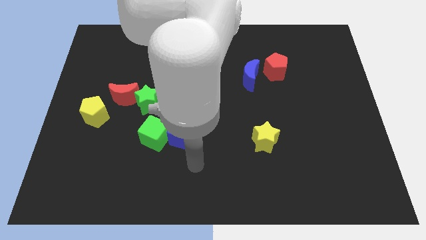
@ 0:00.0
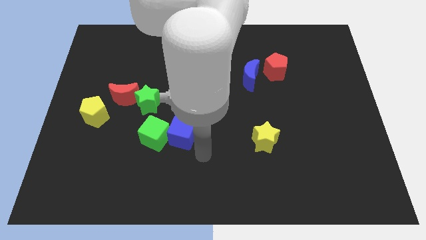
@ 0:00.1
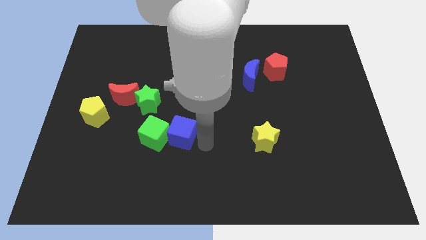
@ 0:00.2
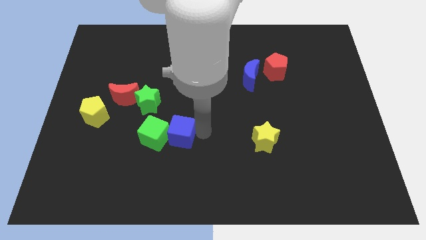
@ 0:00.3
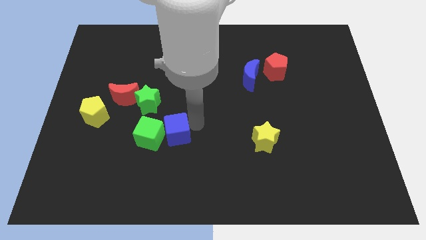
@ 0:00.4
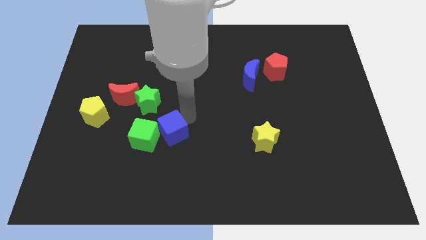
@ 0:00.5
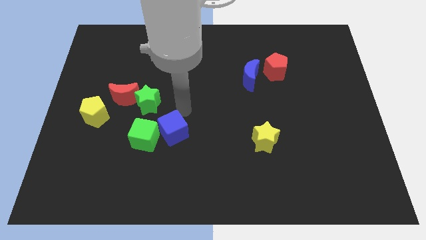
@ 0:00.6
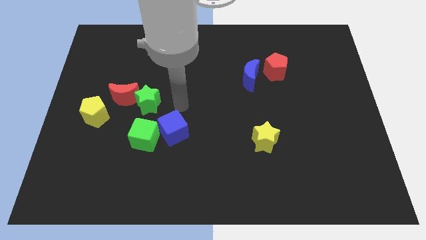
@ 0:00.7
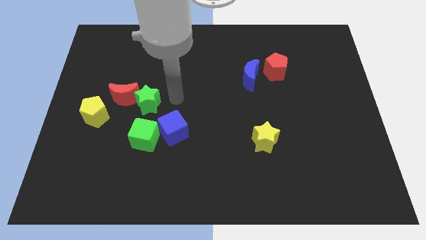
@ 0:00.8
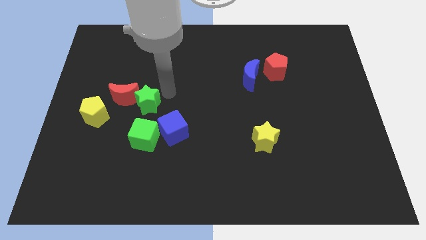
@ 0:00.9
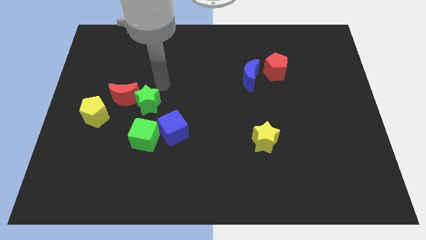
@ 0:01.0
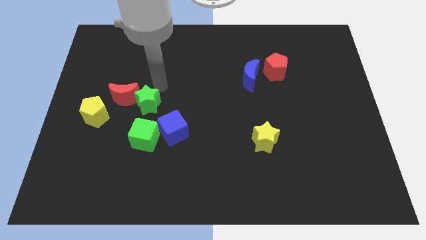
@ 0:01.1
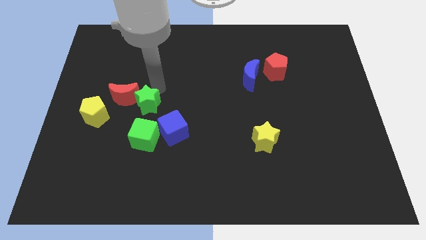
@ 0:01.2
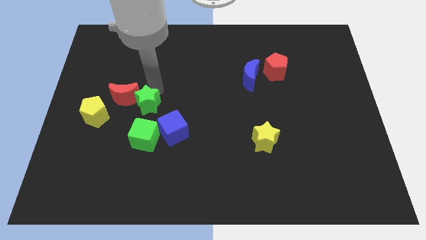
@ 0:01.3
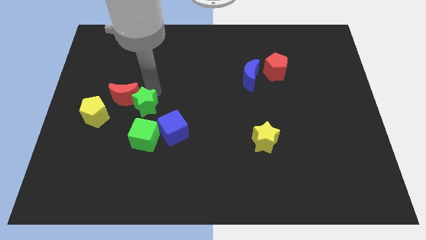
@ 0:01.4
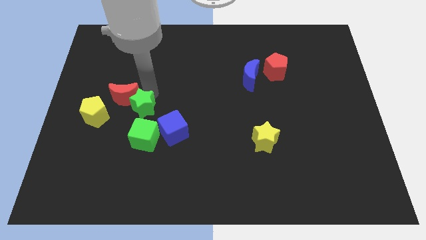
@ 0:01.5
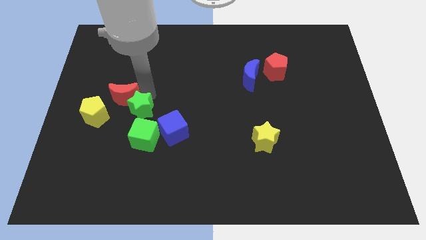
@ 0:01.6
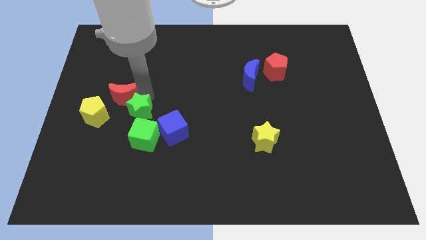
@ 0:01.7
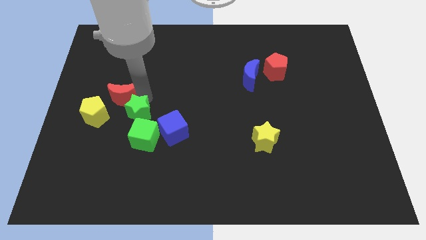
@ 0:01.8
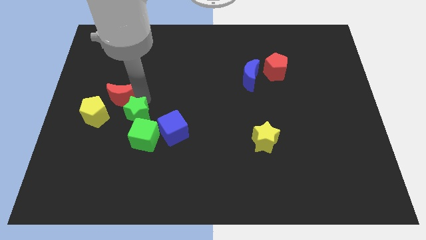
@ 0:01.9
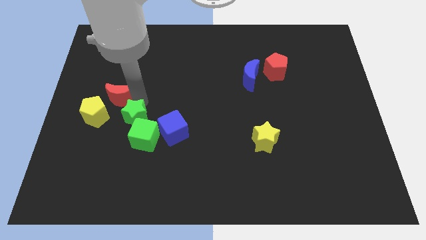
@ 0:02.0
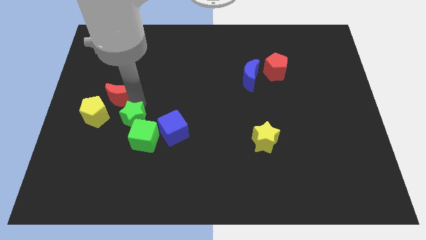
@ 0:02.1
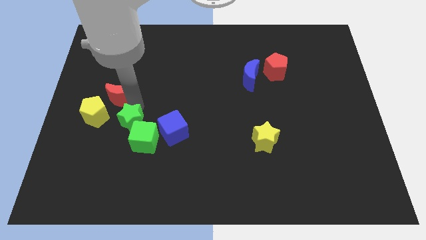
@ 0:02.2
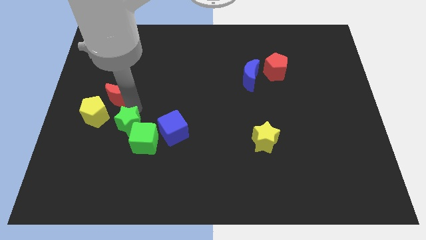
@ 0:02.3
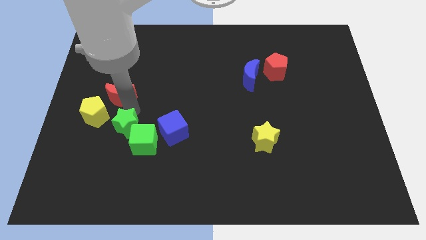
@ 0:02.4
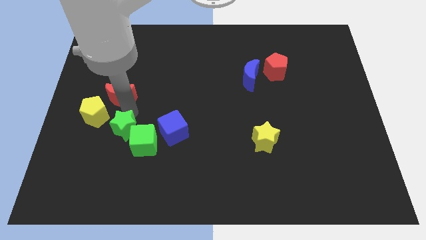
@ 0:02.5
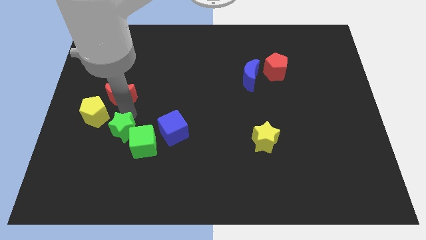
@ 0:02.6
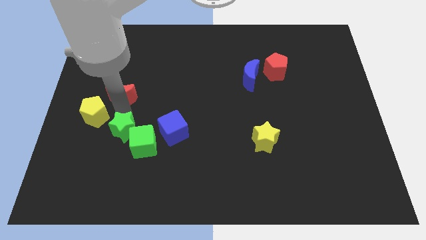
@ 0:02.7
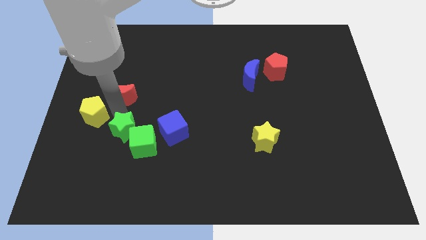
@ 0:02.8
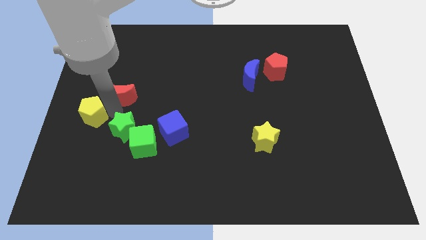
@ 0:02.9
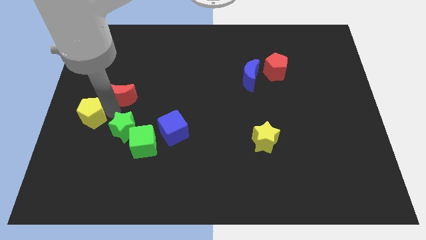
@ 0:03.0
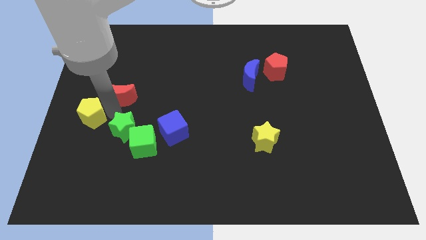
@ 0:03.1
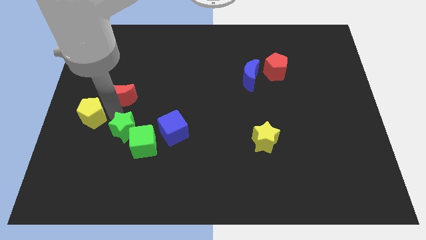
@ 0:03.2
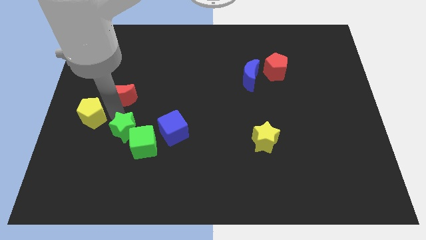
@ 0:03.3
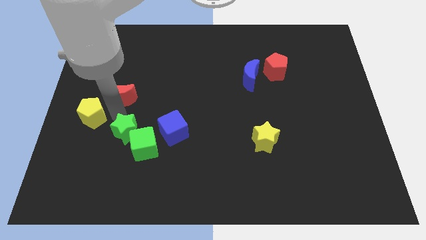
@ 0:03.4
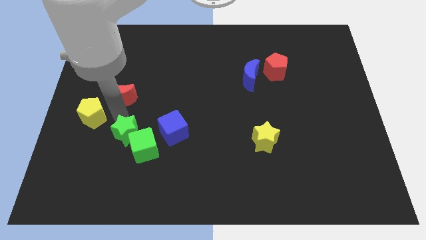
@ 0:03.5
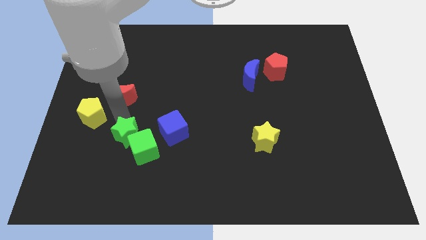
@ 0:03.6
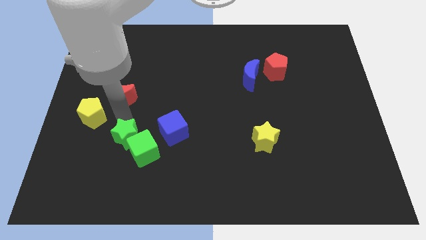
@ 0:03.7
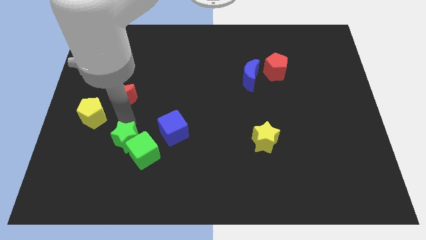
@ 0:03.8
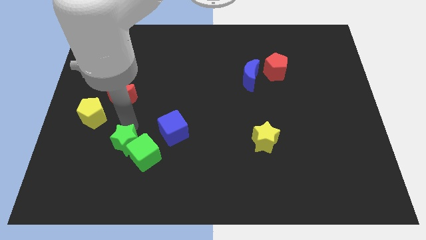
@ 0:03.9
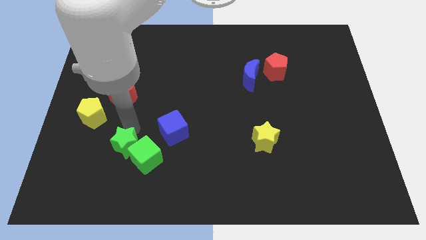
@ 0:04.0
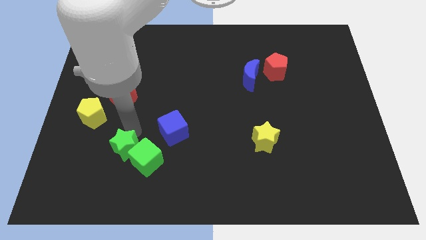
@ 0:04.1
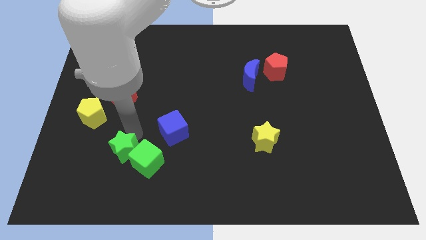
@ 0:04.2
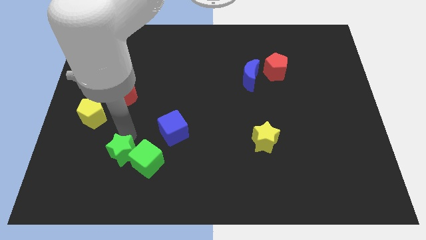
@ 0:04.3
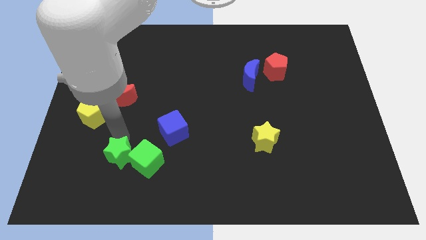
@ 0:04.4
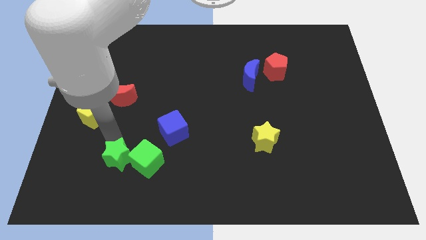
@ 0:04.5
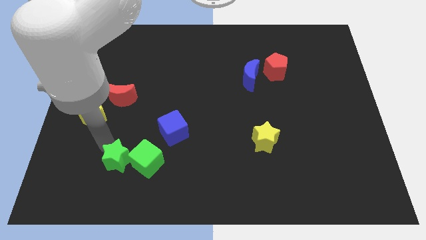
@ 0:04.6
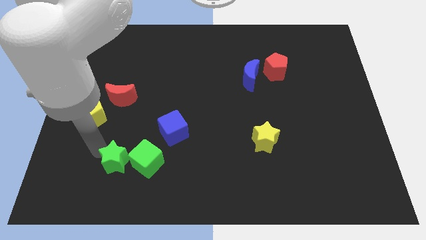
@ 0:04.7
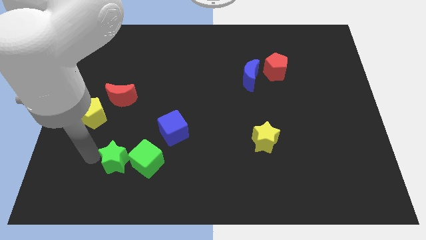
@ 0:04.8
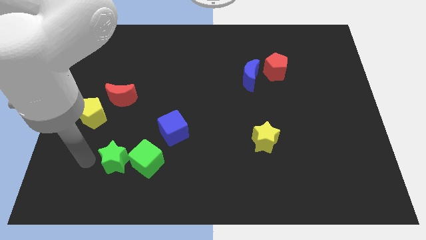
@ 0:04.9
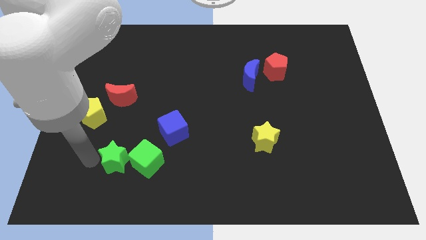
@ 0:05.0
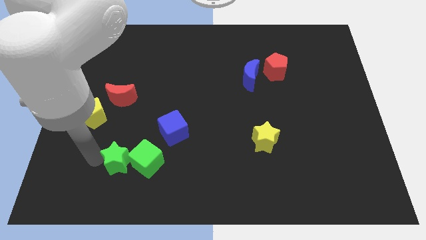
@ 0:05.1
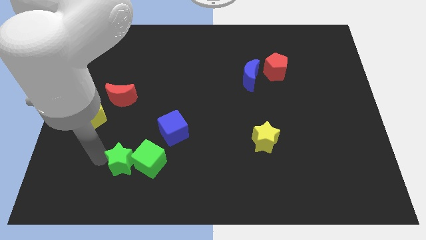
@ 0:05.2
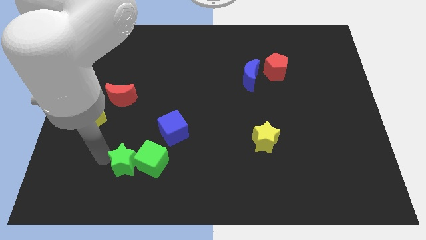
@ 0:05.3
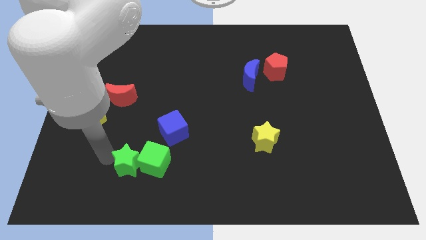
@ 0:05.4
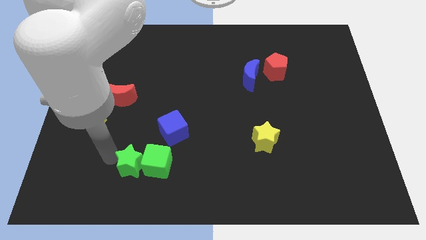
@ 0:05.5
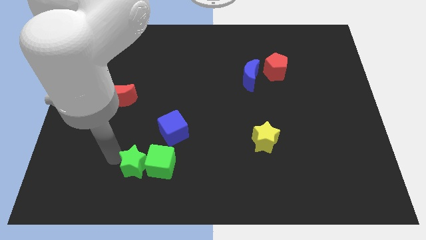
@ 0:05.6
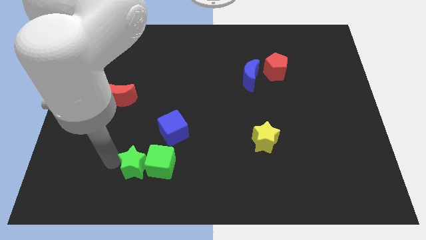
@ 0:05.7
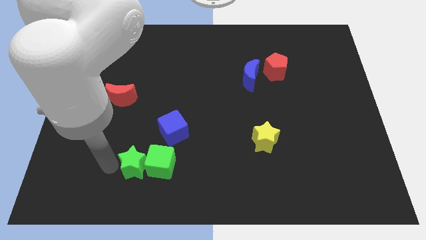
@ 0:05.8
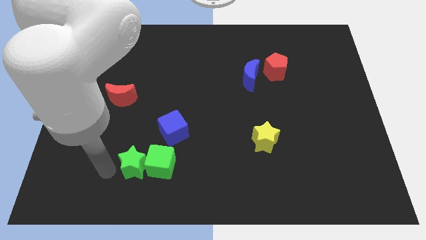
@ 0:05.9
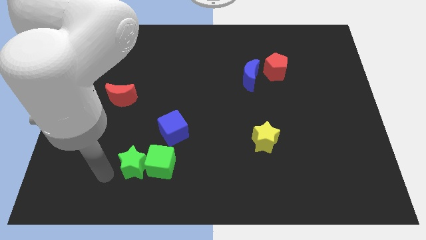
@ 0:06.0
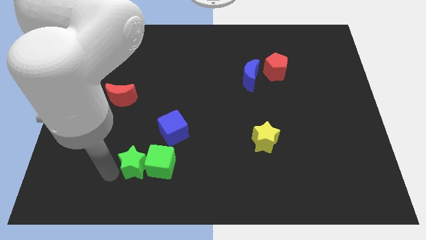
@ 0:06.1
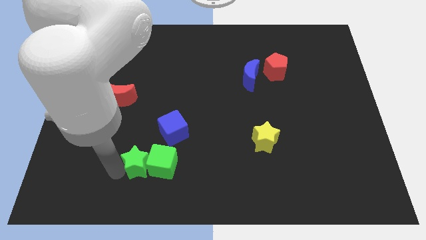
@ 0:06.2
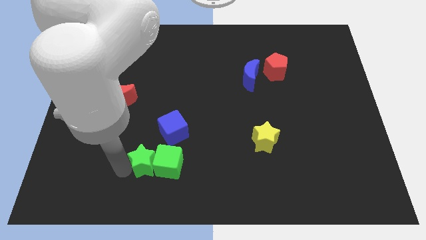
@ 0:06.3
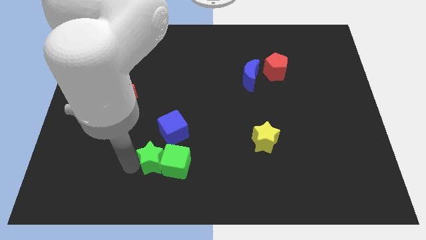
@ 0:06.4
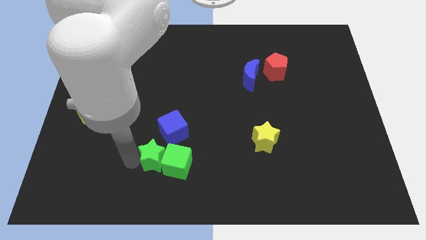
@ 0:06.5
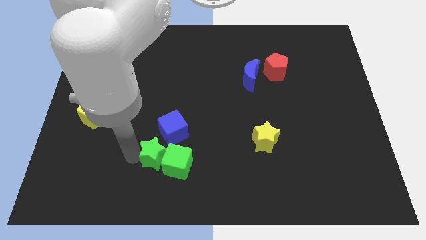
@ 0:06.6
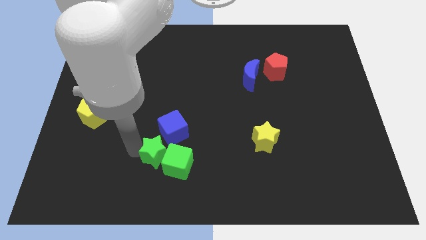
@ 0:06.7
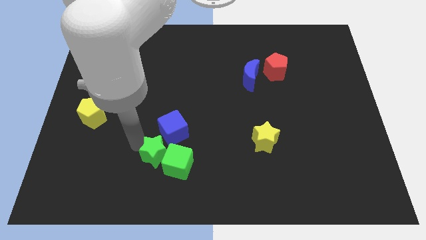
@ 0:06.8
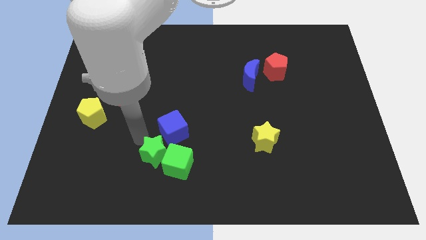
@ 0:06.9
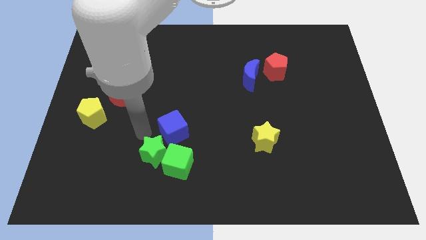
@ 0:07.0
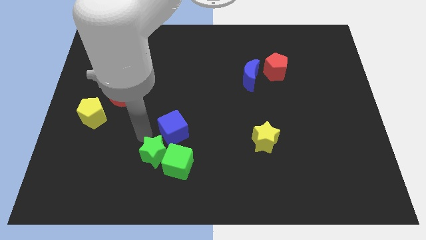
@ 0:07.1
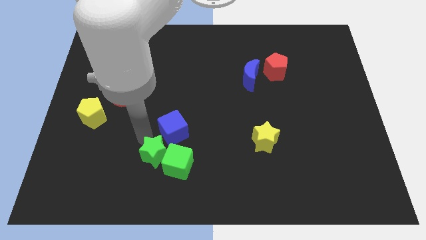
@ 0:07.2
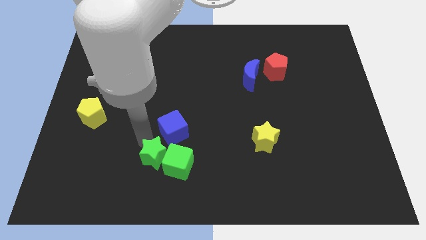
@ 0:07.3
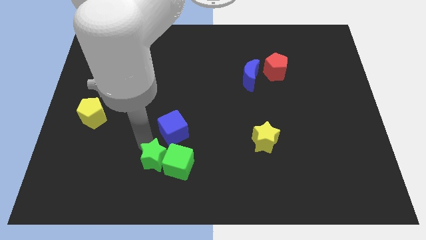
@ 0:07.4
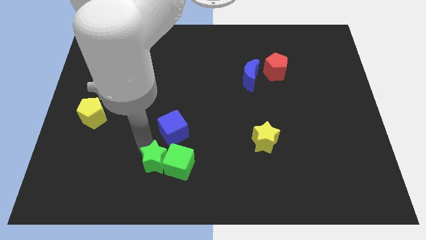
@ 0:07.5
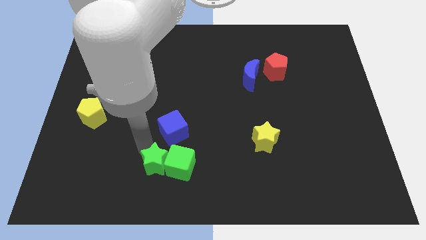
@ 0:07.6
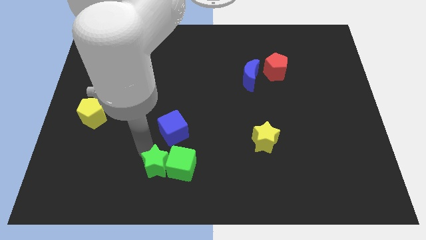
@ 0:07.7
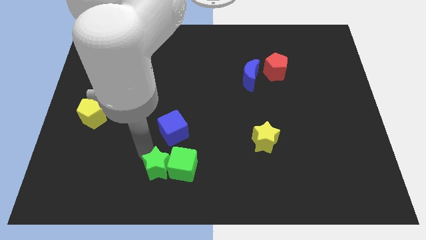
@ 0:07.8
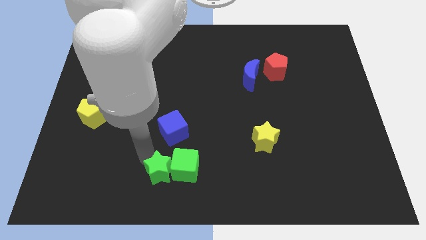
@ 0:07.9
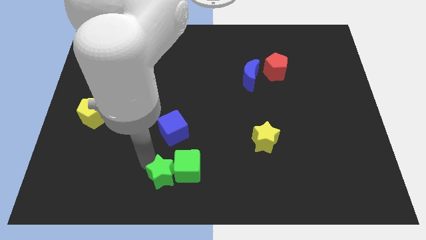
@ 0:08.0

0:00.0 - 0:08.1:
slide the green star to the bottom side
